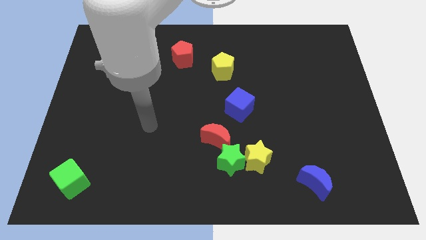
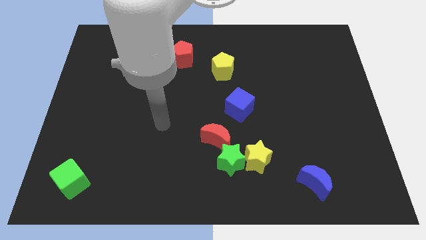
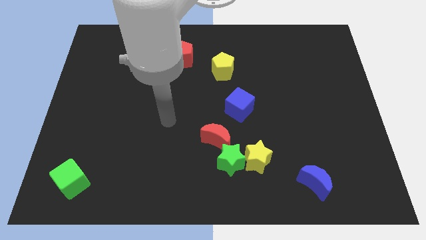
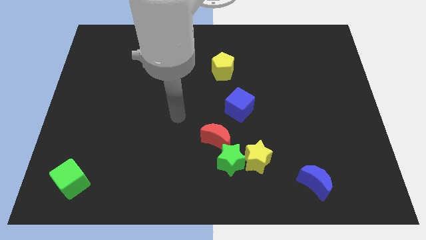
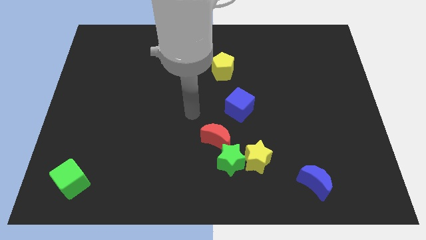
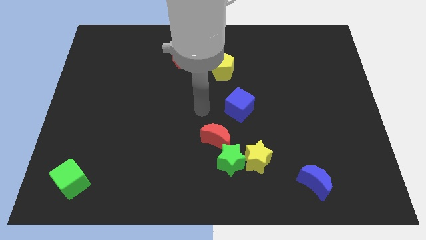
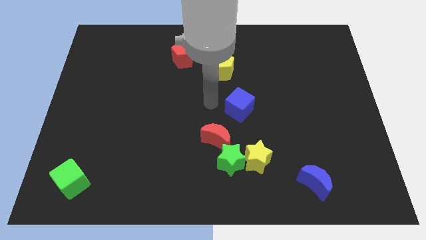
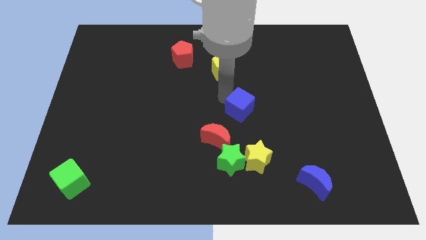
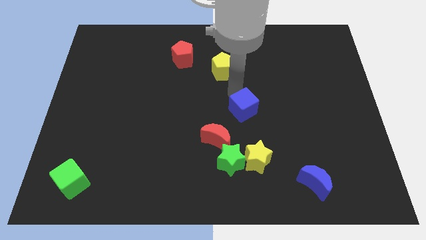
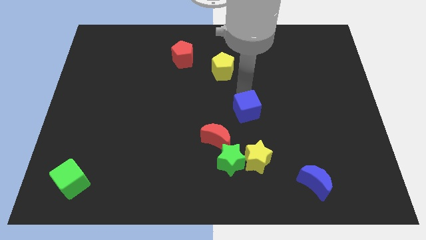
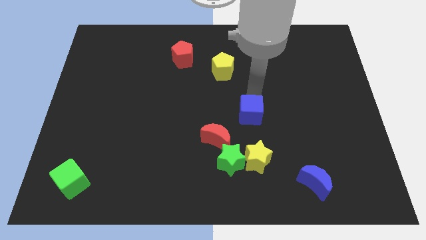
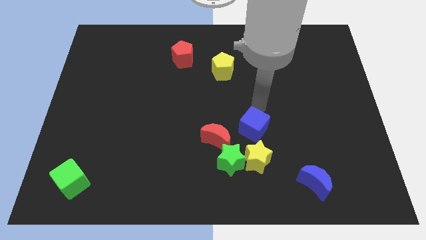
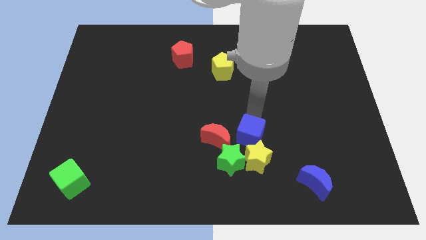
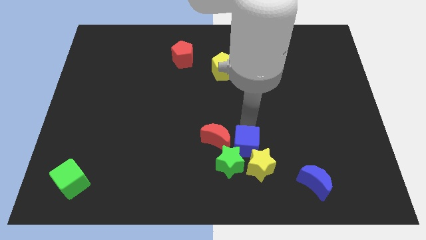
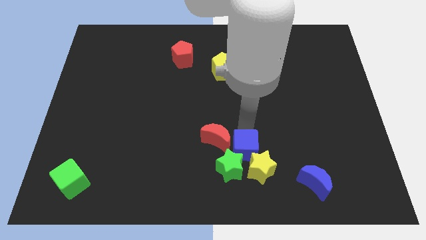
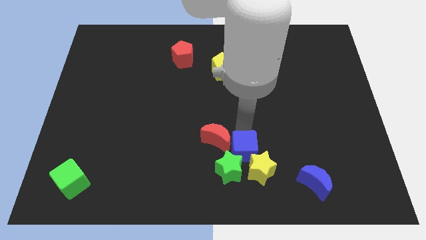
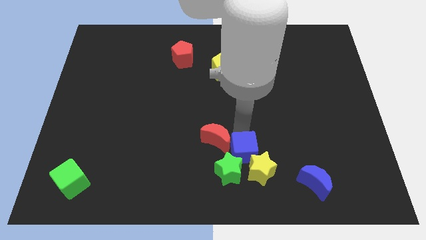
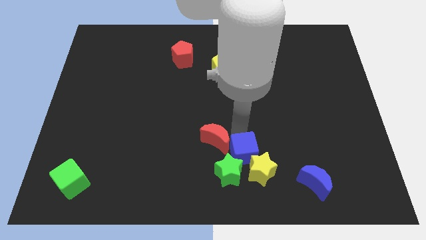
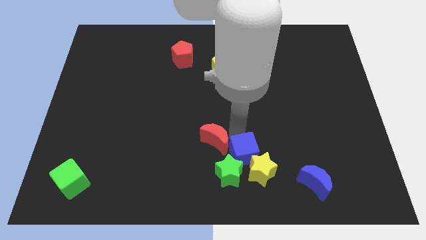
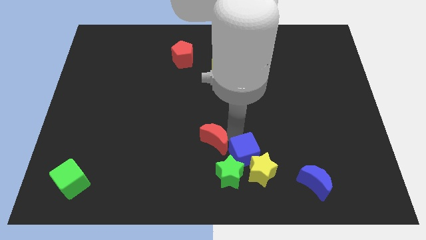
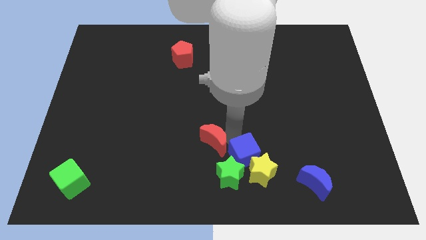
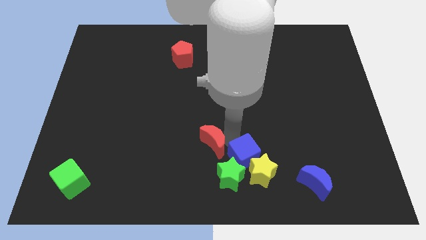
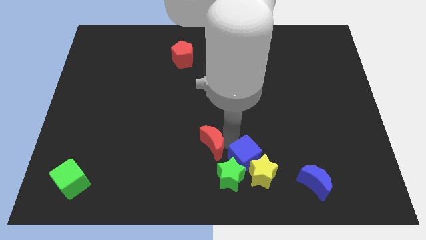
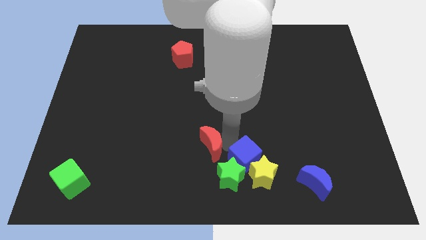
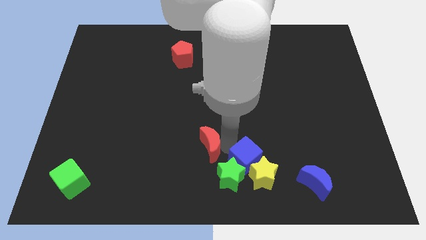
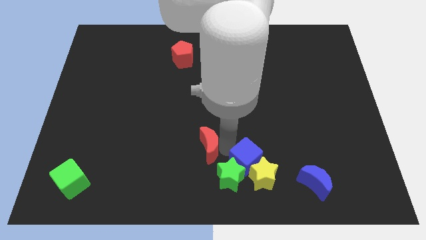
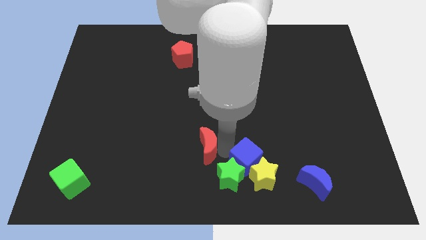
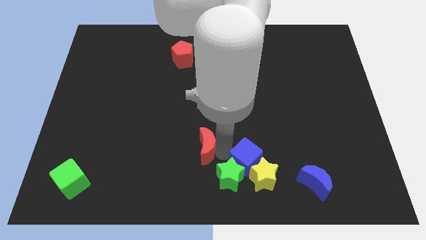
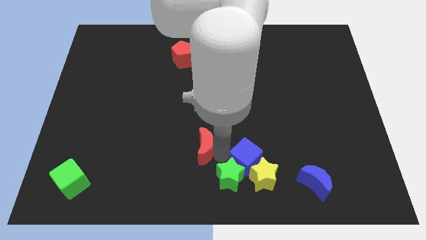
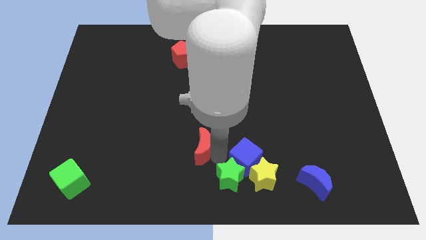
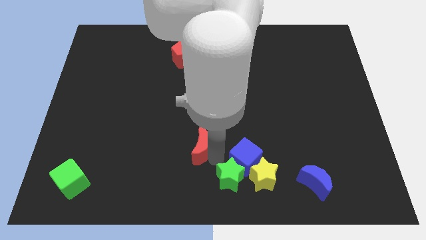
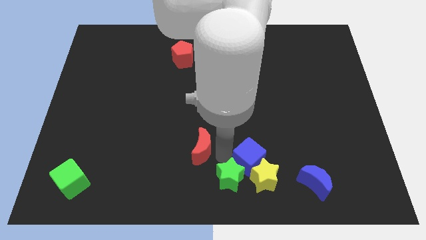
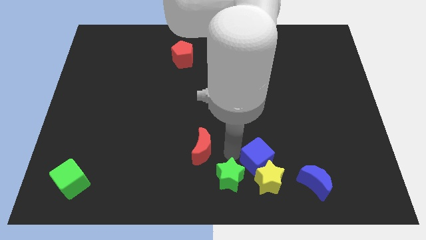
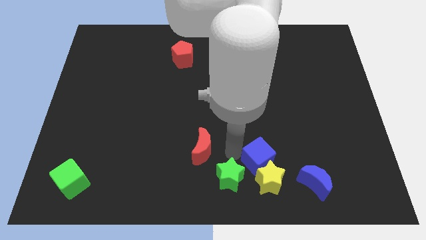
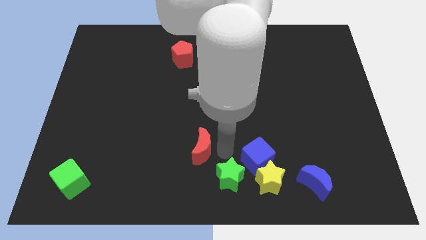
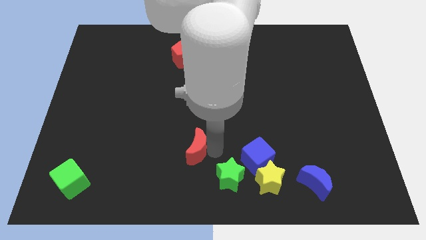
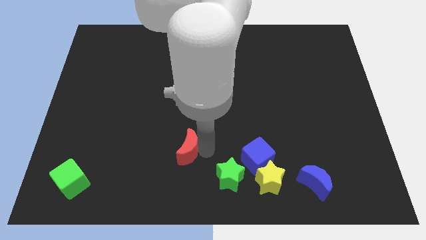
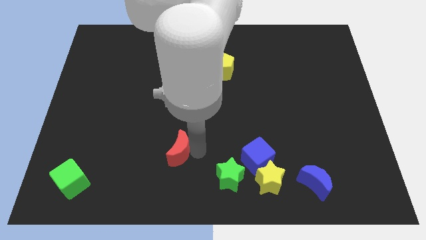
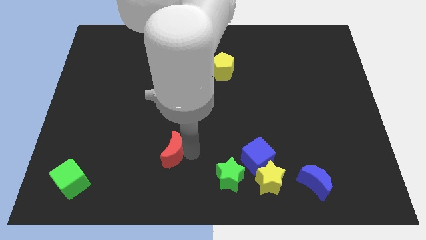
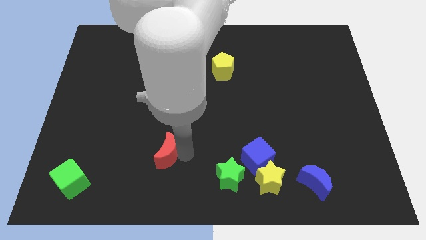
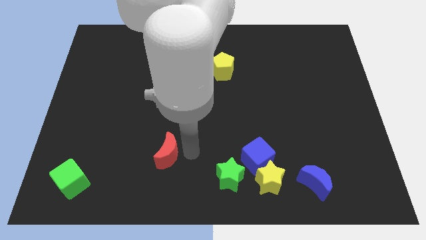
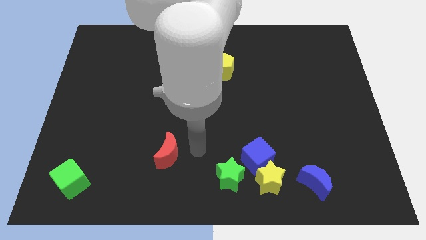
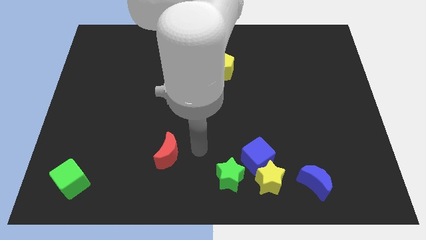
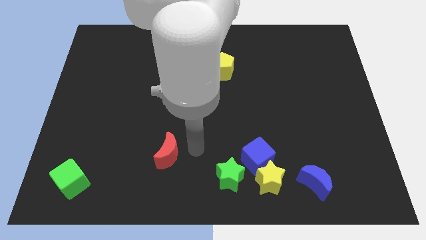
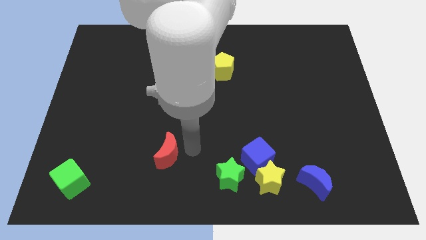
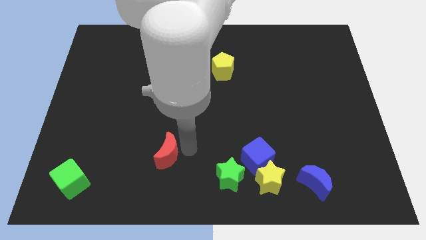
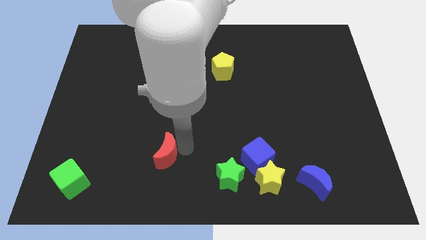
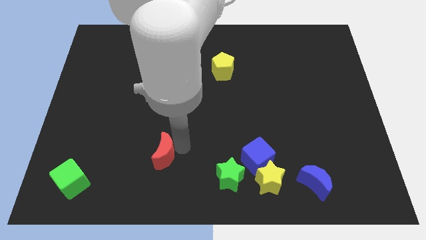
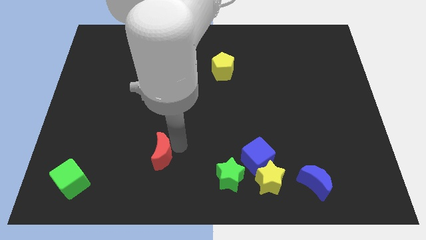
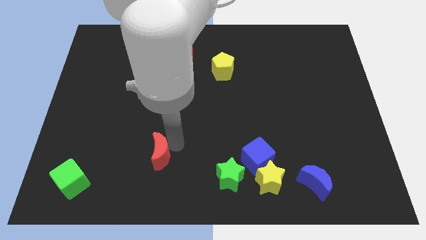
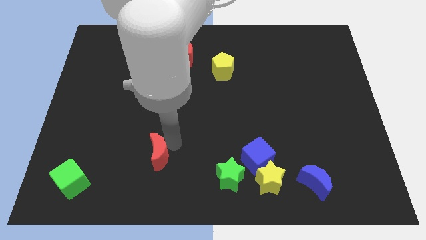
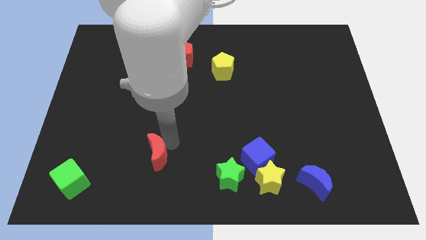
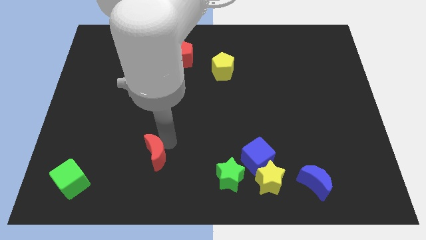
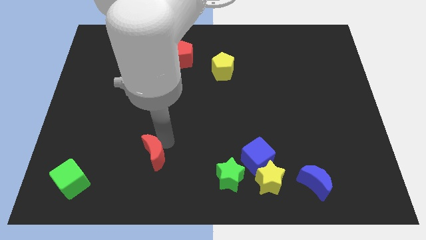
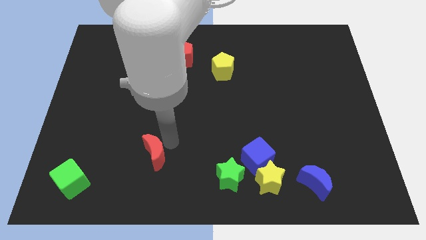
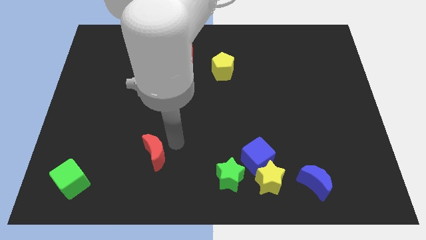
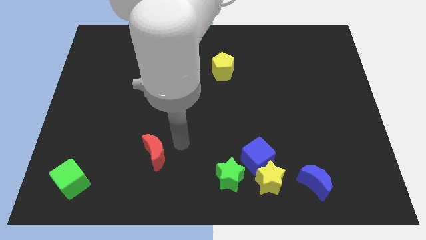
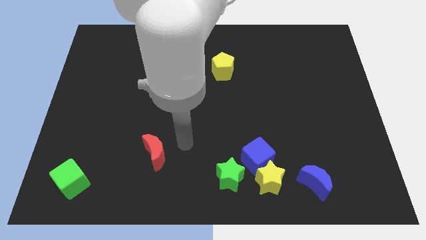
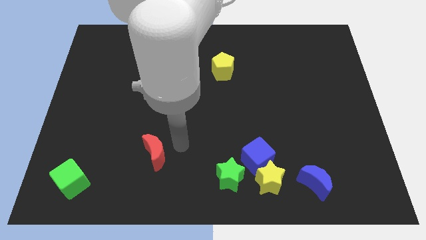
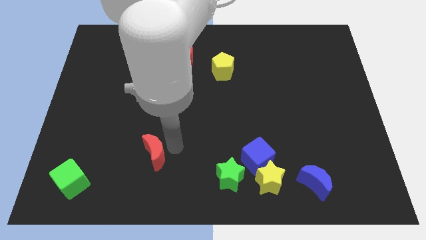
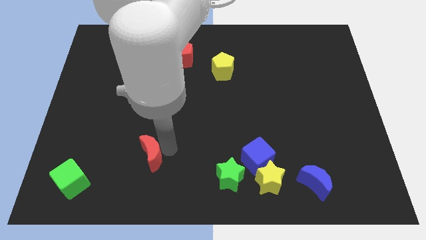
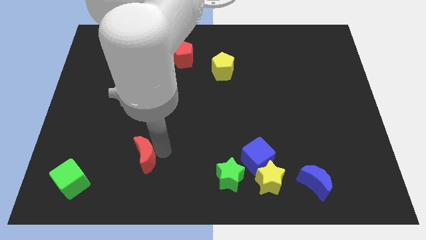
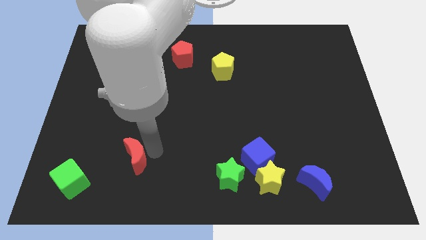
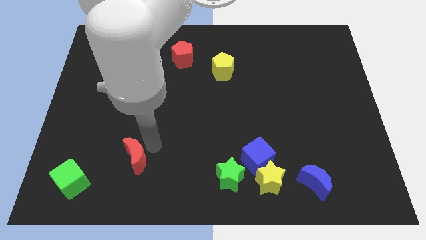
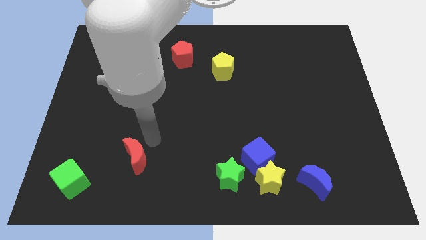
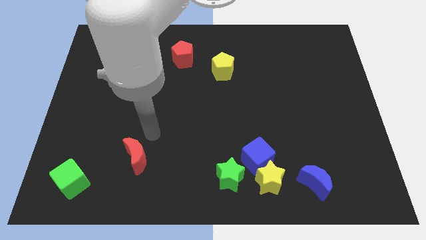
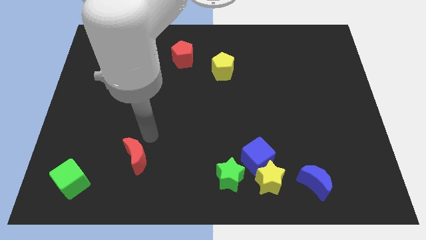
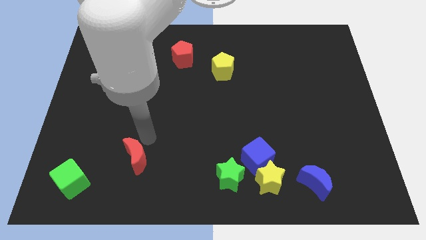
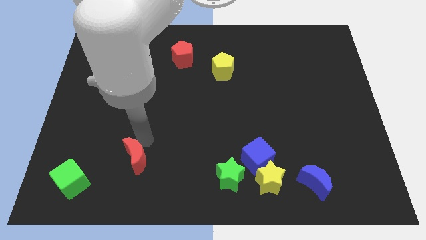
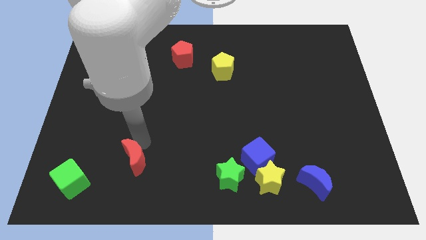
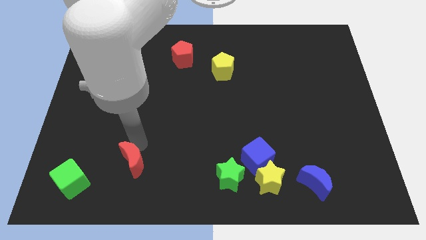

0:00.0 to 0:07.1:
slide the red moon right of the green cube
